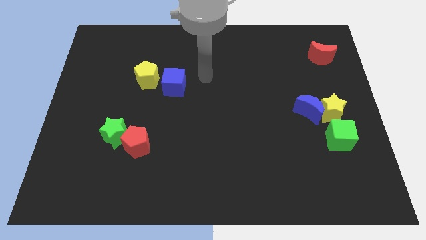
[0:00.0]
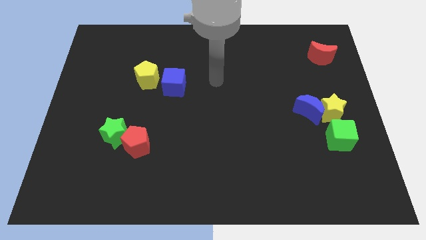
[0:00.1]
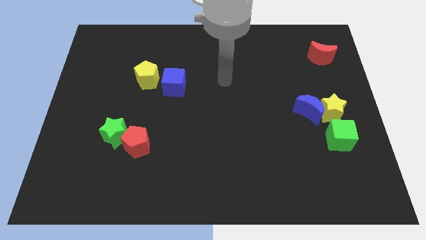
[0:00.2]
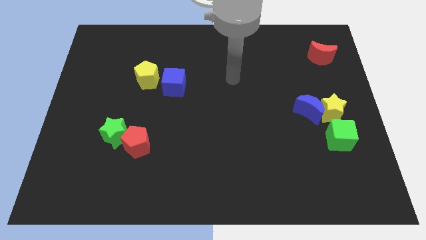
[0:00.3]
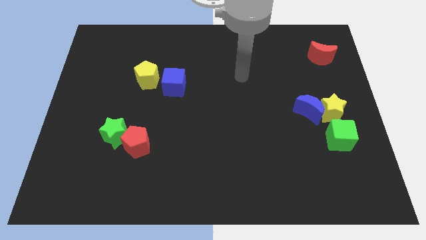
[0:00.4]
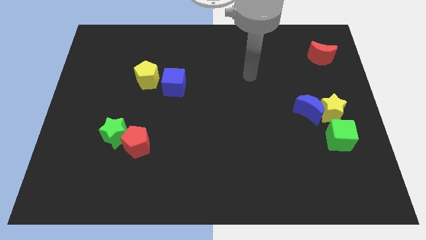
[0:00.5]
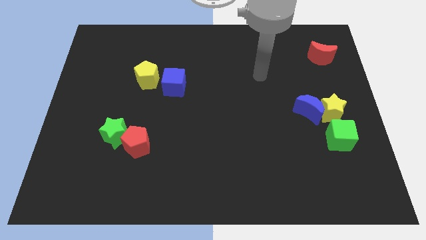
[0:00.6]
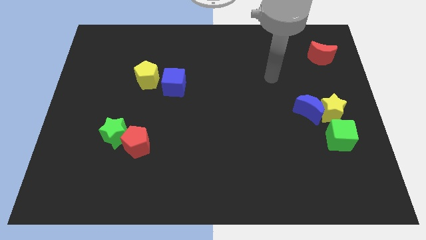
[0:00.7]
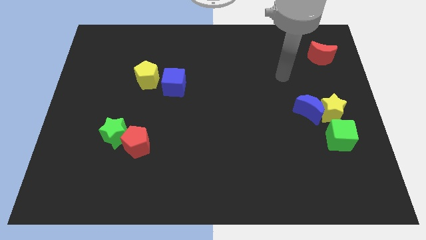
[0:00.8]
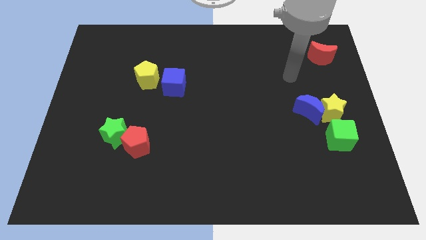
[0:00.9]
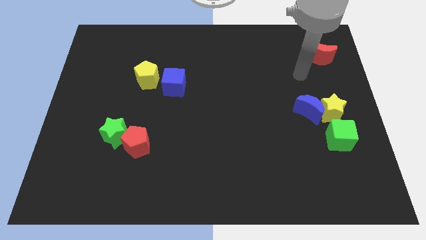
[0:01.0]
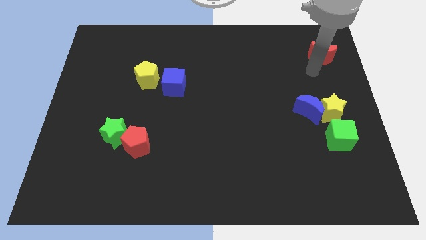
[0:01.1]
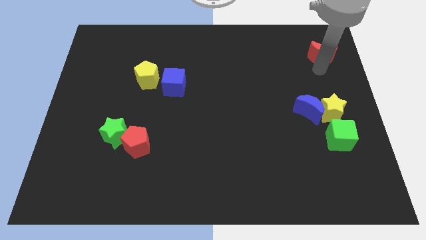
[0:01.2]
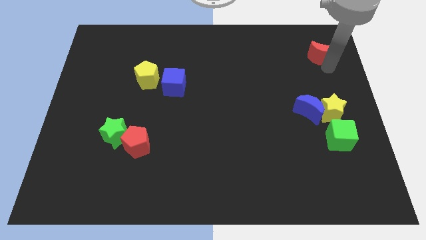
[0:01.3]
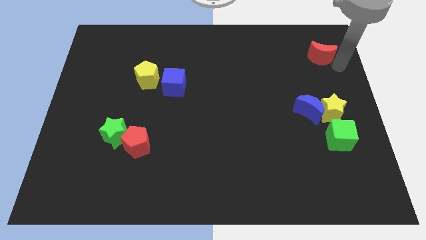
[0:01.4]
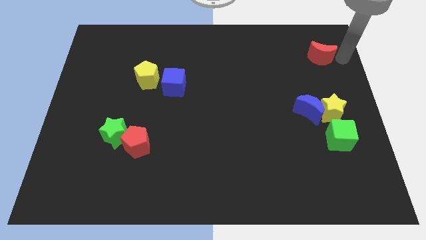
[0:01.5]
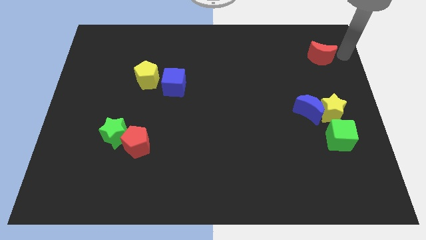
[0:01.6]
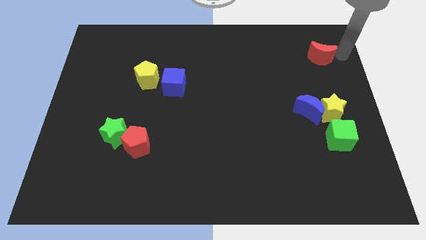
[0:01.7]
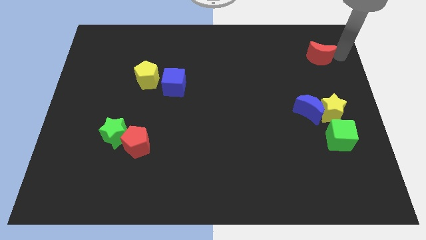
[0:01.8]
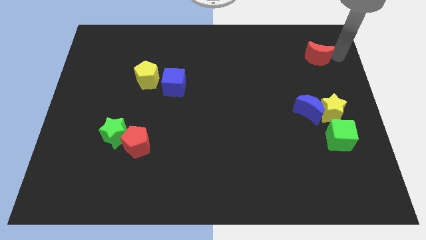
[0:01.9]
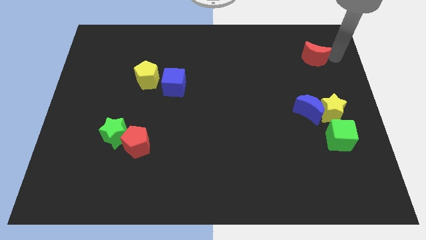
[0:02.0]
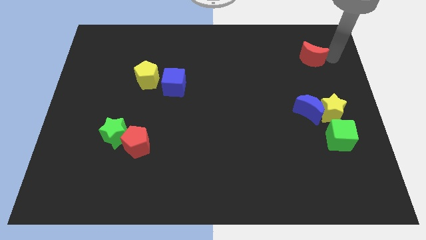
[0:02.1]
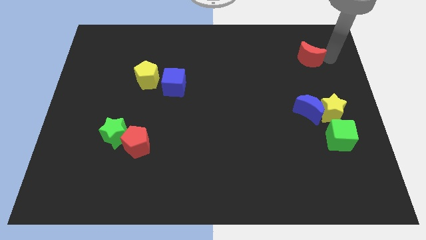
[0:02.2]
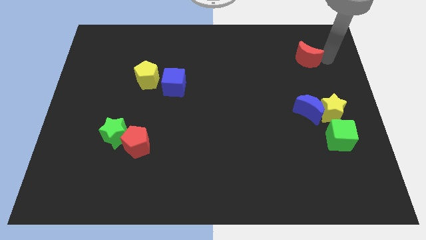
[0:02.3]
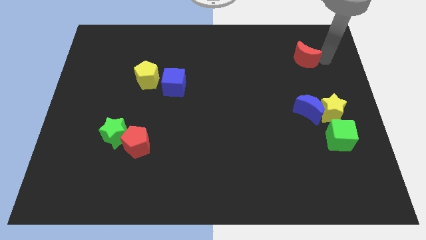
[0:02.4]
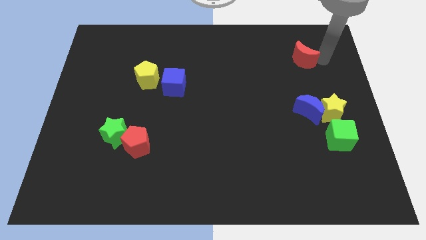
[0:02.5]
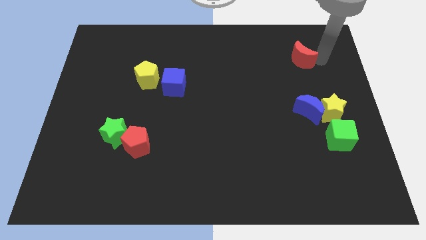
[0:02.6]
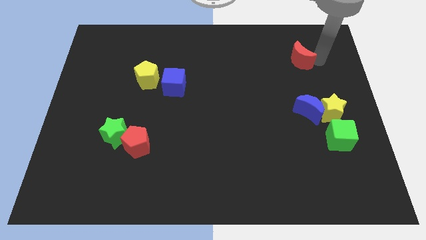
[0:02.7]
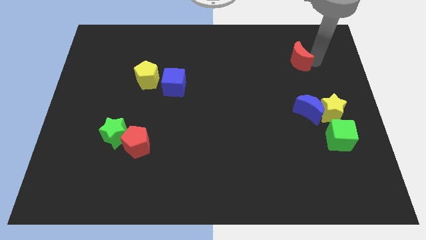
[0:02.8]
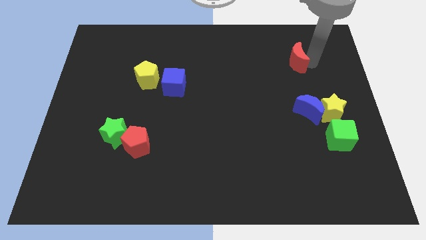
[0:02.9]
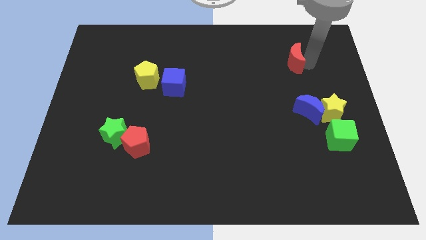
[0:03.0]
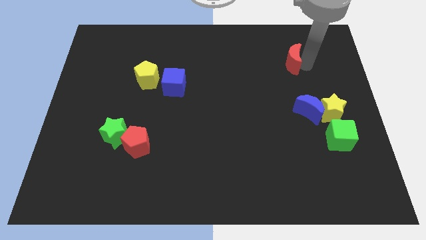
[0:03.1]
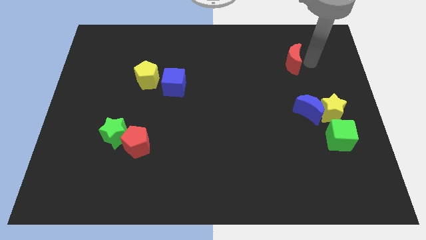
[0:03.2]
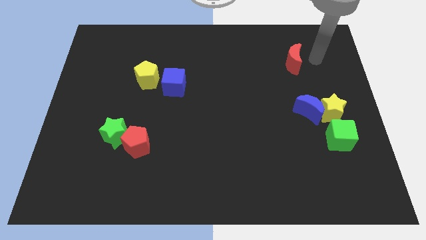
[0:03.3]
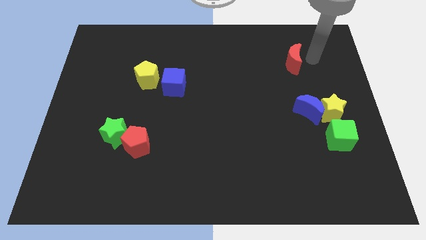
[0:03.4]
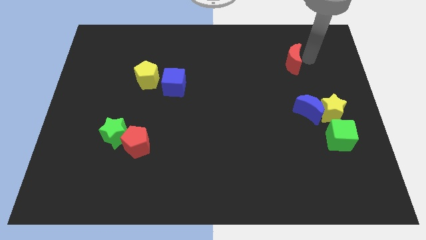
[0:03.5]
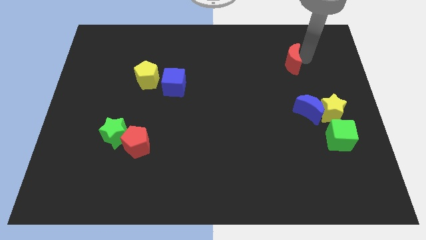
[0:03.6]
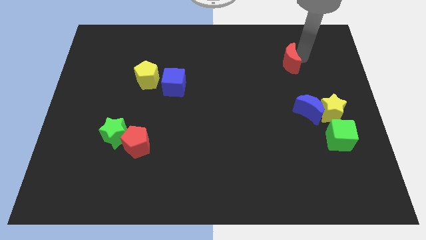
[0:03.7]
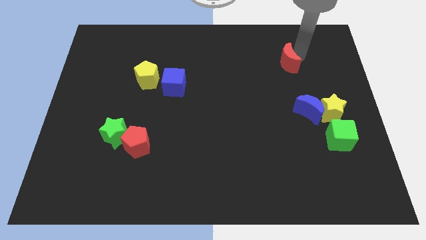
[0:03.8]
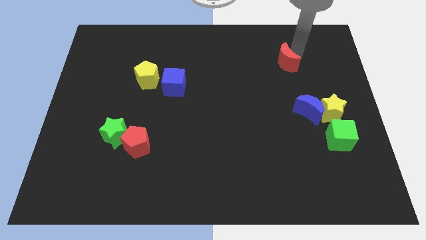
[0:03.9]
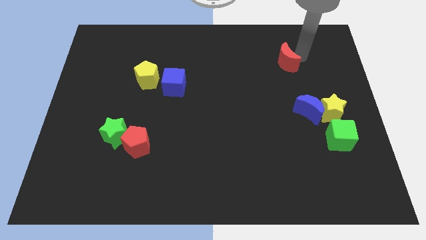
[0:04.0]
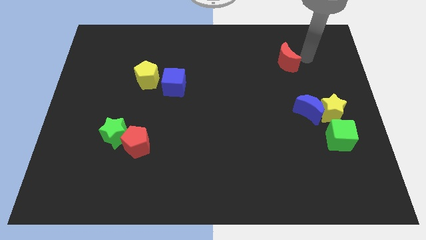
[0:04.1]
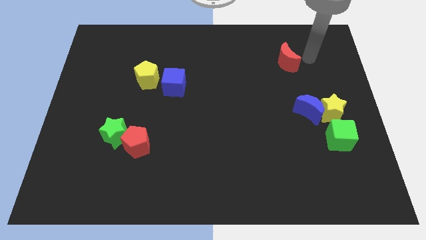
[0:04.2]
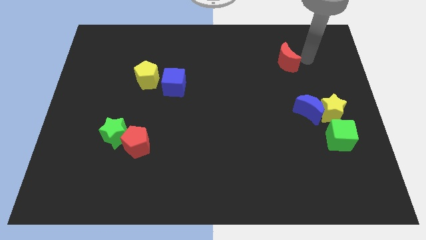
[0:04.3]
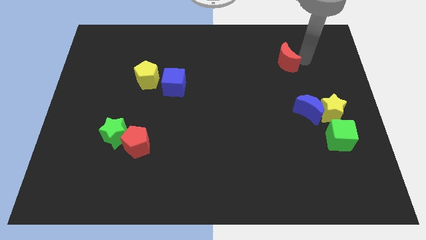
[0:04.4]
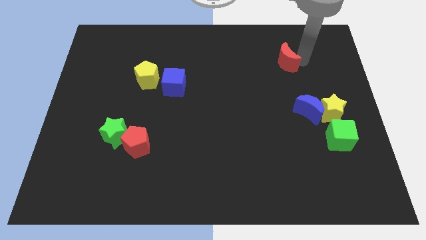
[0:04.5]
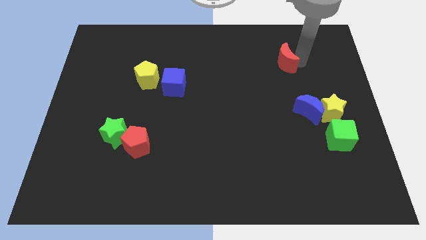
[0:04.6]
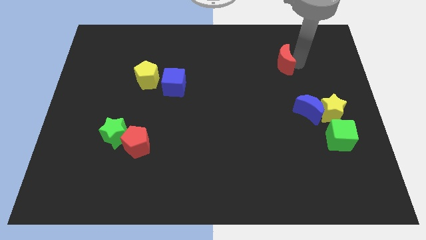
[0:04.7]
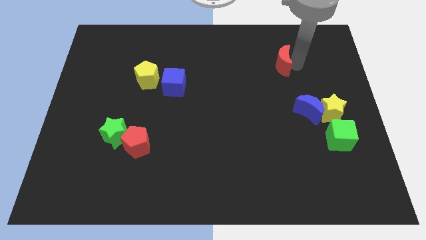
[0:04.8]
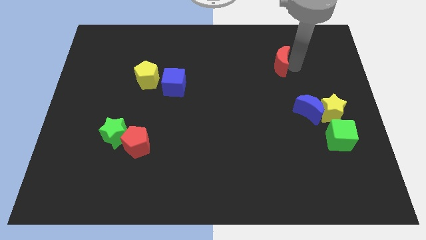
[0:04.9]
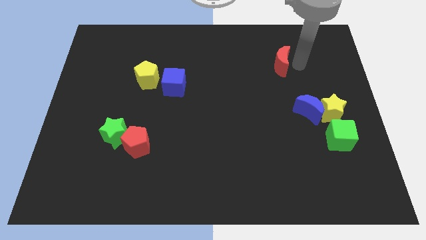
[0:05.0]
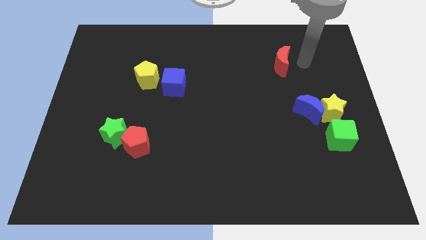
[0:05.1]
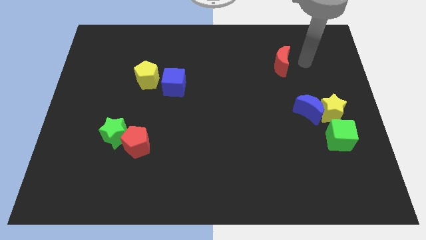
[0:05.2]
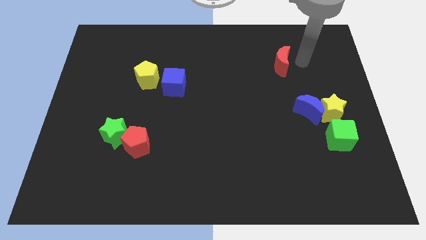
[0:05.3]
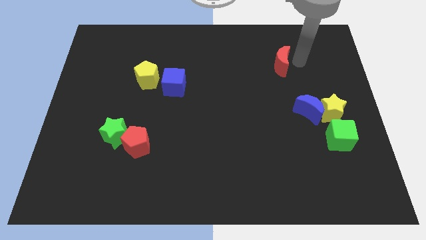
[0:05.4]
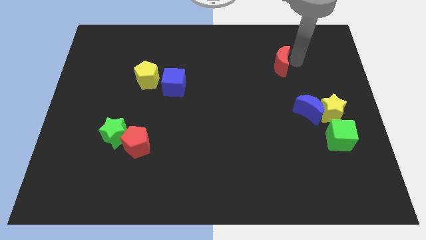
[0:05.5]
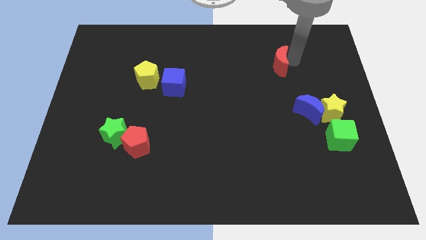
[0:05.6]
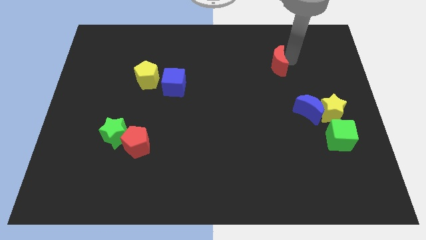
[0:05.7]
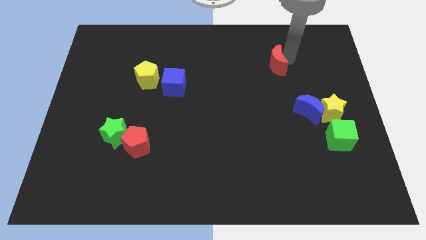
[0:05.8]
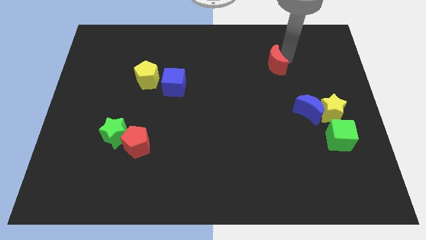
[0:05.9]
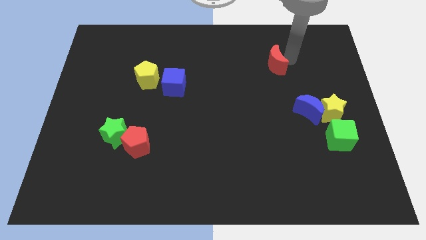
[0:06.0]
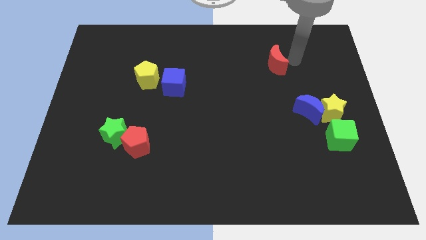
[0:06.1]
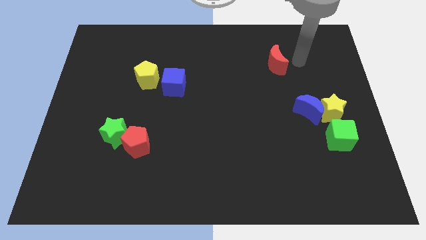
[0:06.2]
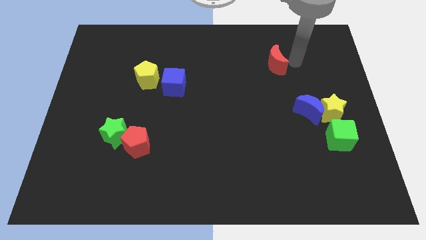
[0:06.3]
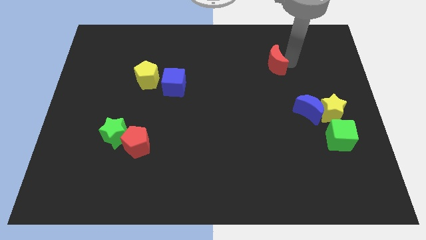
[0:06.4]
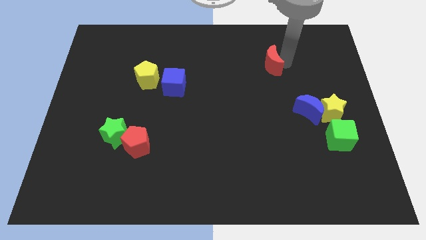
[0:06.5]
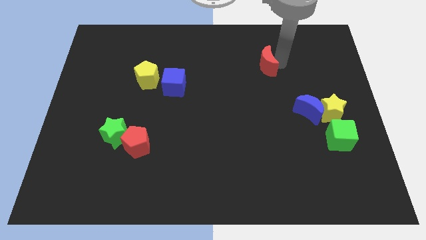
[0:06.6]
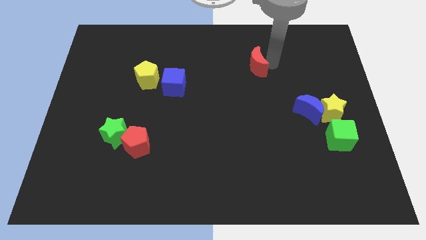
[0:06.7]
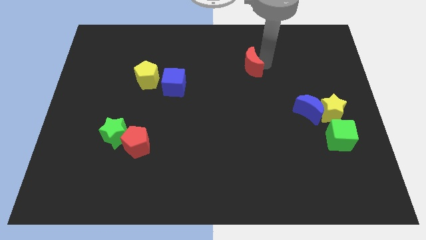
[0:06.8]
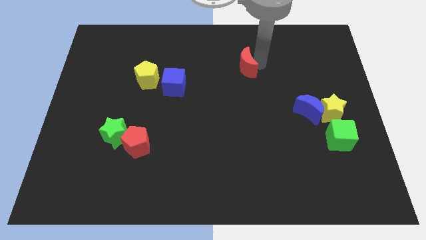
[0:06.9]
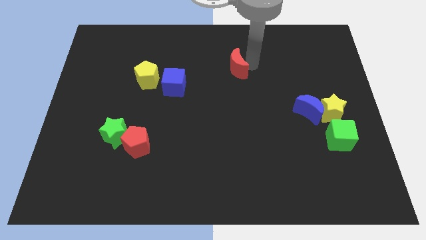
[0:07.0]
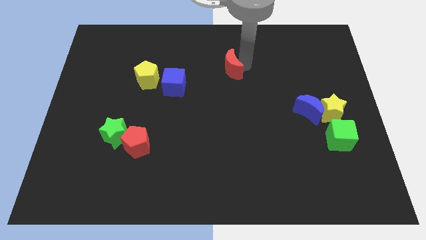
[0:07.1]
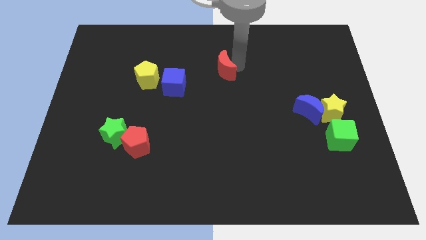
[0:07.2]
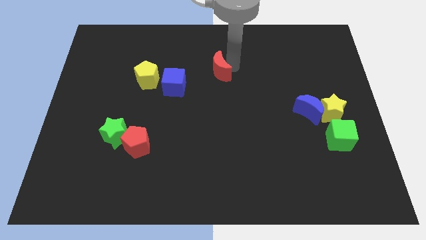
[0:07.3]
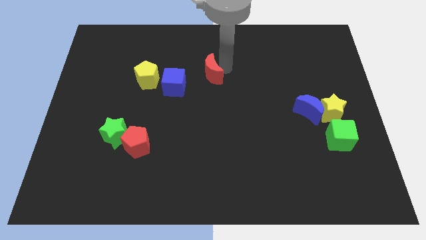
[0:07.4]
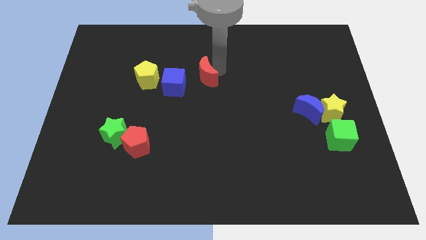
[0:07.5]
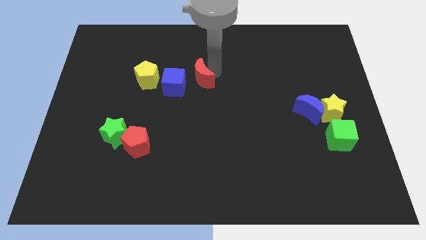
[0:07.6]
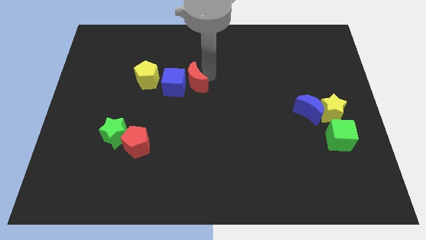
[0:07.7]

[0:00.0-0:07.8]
slide the red moon next to the blue cube

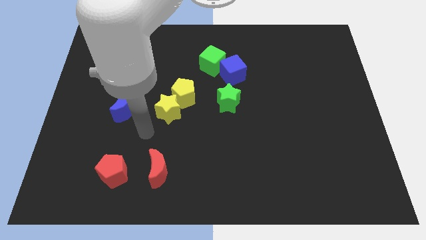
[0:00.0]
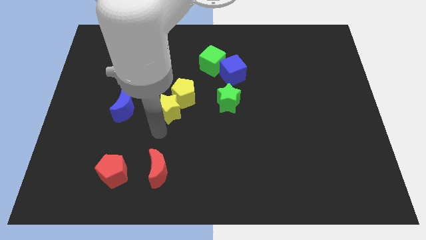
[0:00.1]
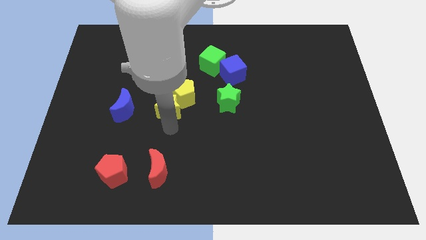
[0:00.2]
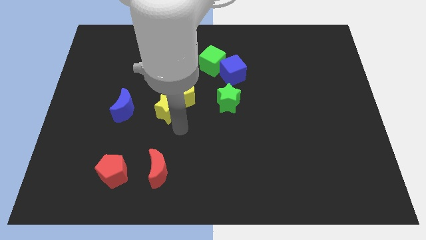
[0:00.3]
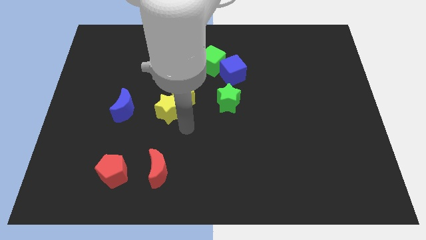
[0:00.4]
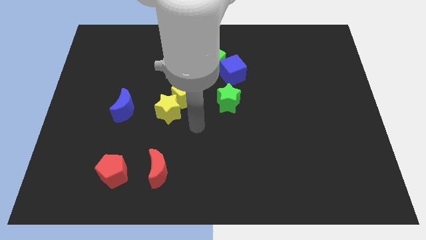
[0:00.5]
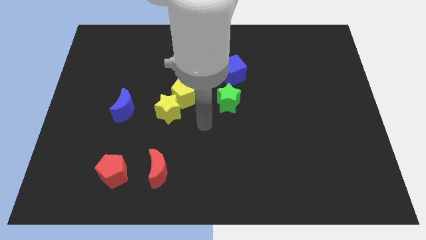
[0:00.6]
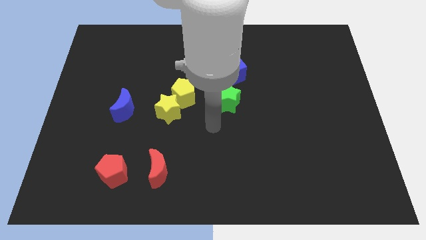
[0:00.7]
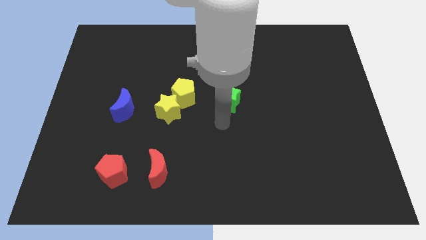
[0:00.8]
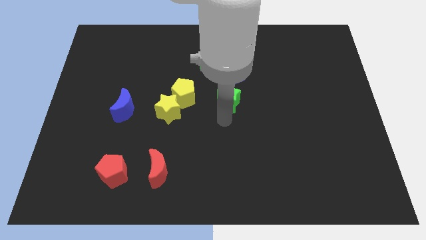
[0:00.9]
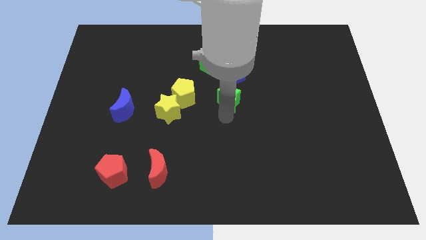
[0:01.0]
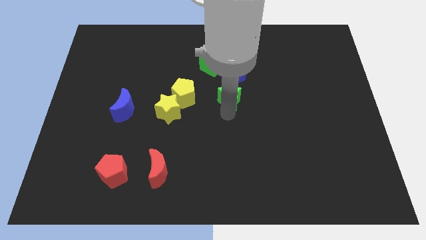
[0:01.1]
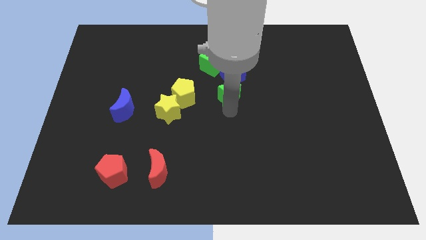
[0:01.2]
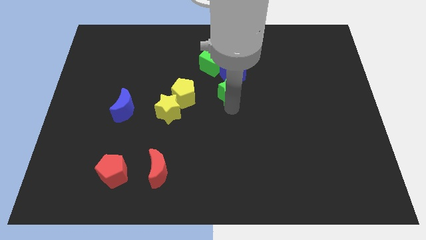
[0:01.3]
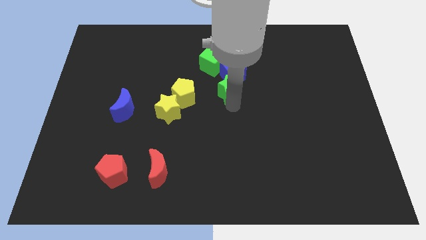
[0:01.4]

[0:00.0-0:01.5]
slide the green star next to the blue cube
